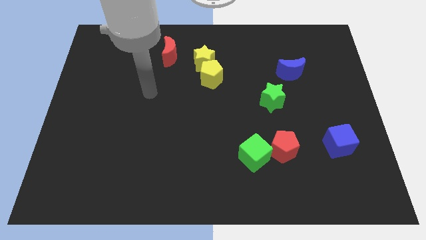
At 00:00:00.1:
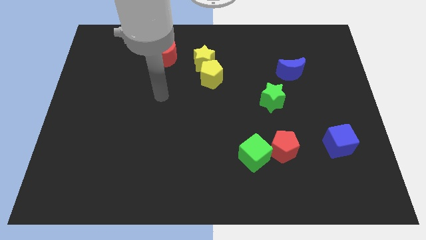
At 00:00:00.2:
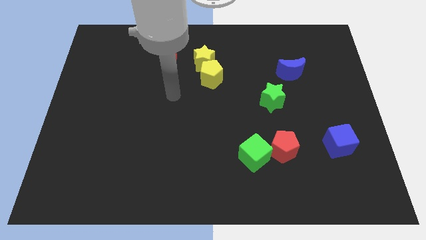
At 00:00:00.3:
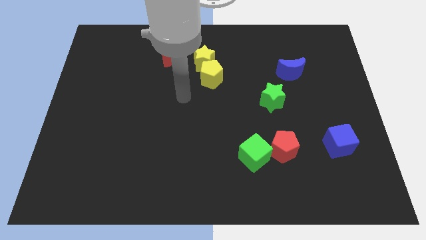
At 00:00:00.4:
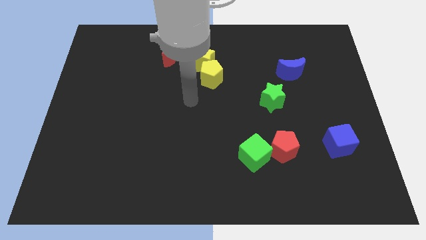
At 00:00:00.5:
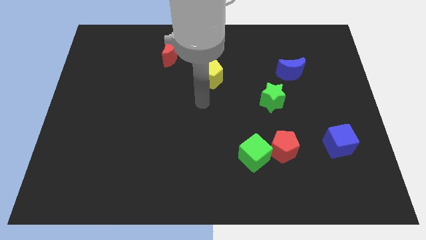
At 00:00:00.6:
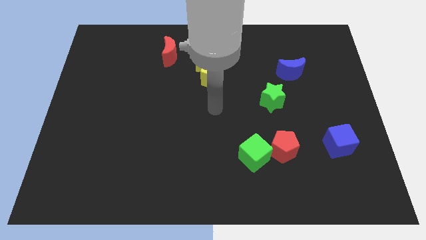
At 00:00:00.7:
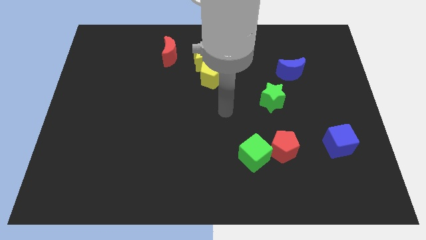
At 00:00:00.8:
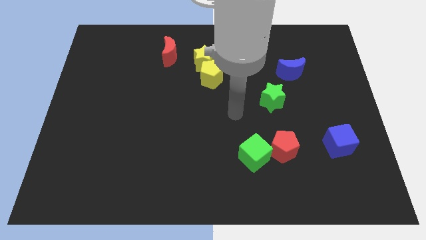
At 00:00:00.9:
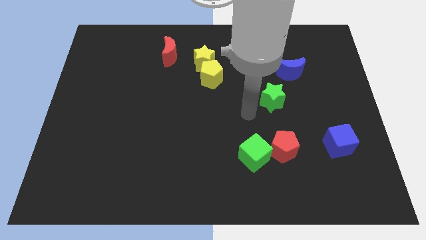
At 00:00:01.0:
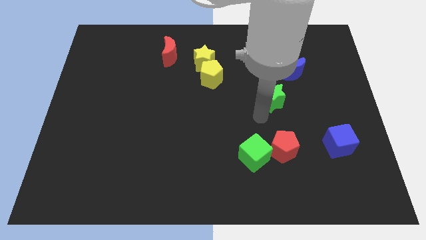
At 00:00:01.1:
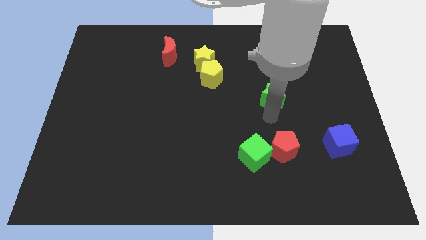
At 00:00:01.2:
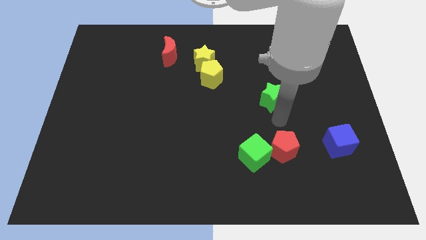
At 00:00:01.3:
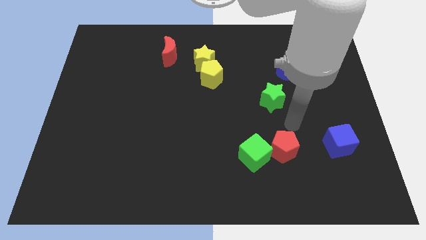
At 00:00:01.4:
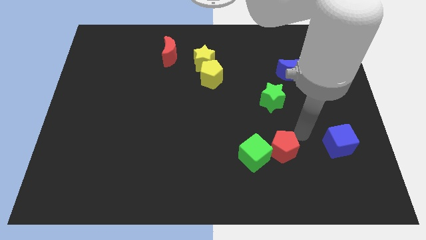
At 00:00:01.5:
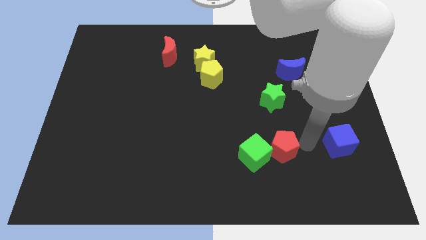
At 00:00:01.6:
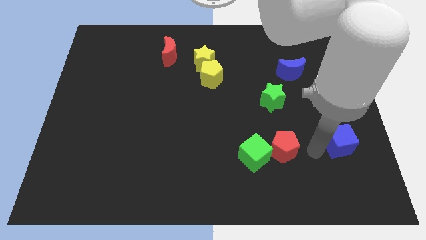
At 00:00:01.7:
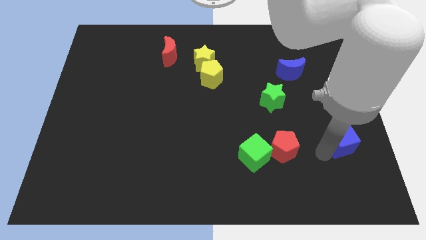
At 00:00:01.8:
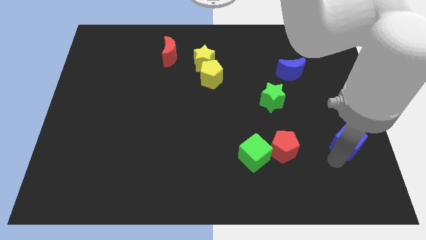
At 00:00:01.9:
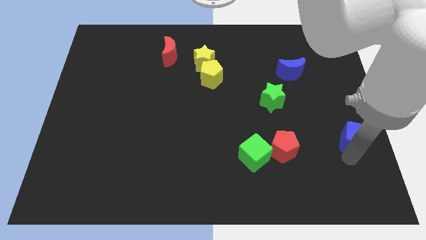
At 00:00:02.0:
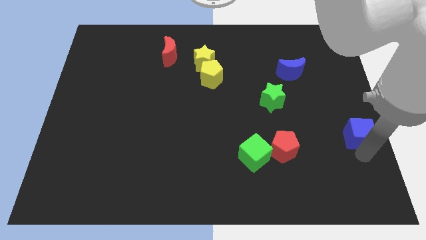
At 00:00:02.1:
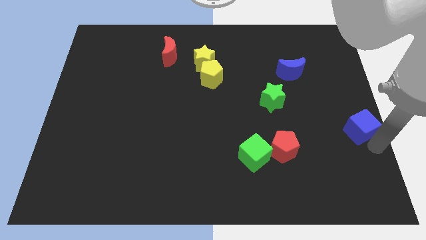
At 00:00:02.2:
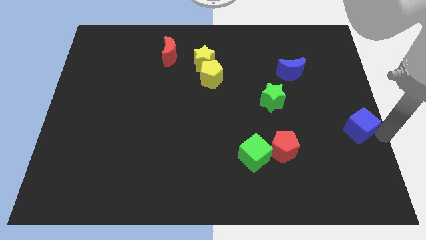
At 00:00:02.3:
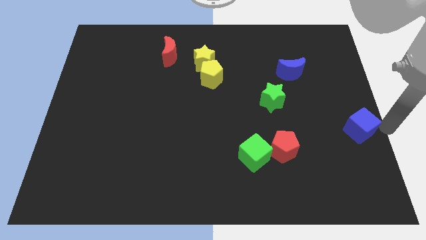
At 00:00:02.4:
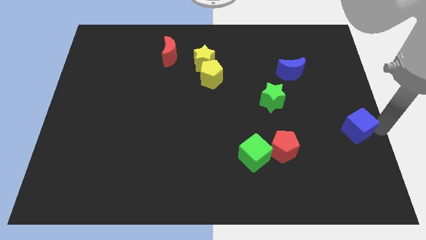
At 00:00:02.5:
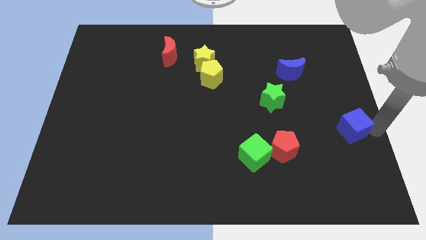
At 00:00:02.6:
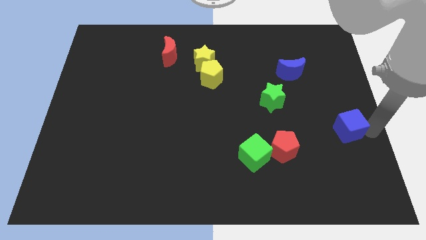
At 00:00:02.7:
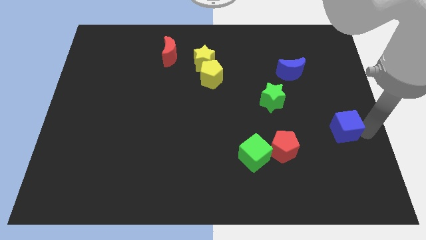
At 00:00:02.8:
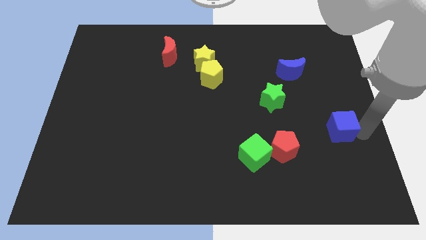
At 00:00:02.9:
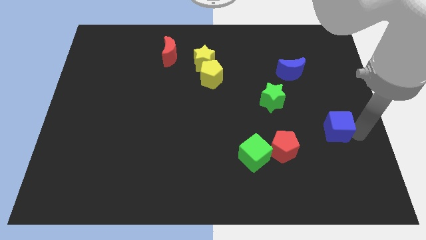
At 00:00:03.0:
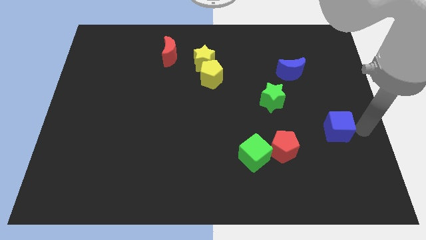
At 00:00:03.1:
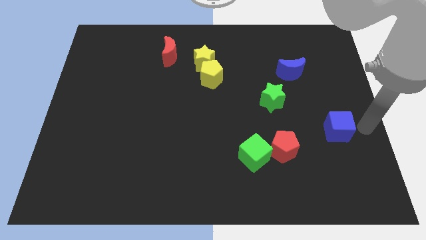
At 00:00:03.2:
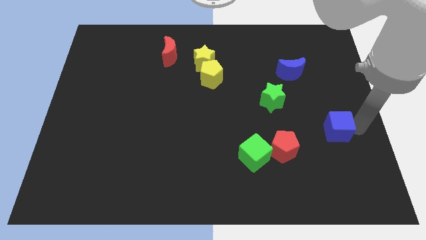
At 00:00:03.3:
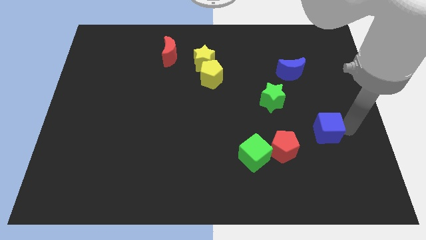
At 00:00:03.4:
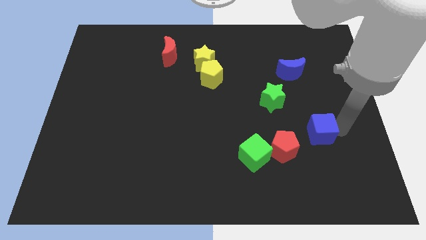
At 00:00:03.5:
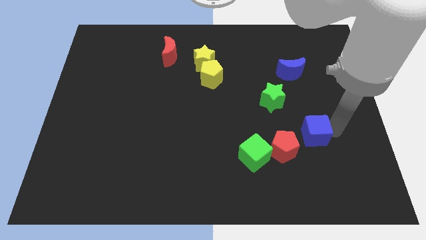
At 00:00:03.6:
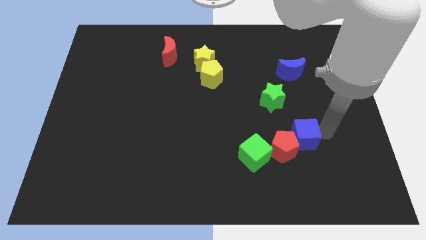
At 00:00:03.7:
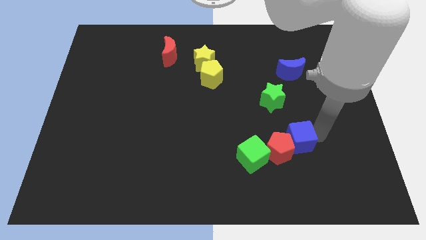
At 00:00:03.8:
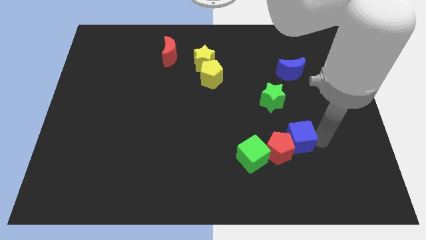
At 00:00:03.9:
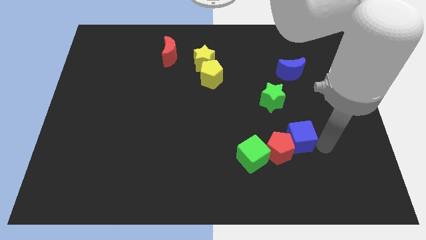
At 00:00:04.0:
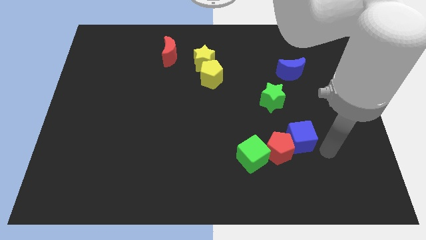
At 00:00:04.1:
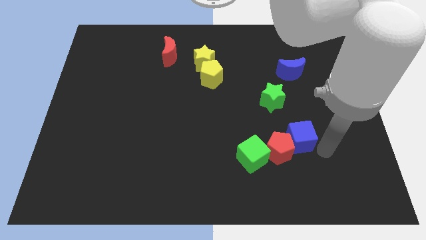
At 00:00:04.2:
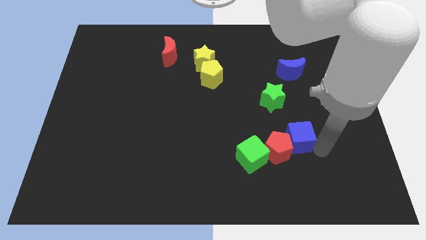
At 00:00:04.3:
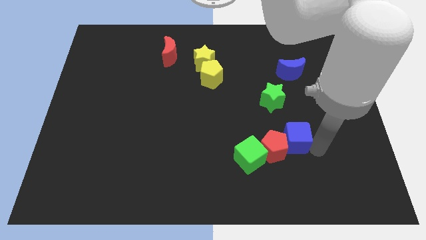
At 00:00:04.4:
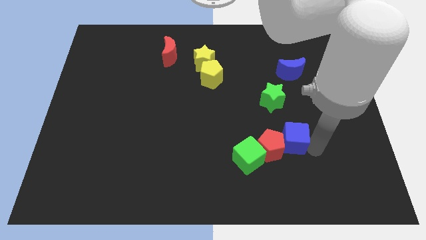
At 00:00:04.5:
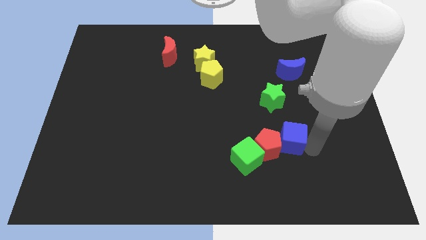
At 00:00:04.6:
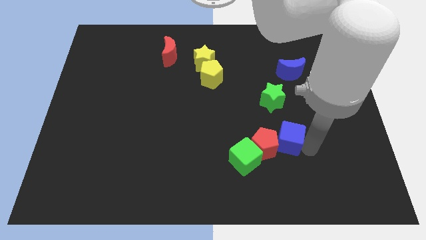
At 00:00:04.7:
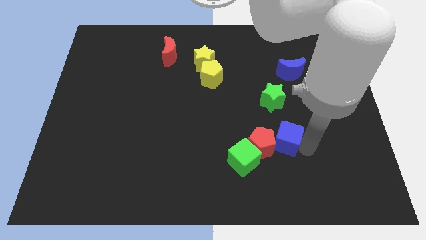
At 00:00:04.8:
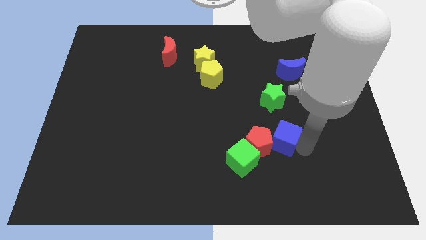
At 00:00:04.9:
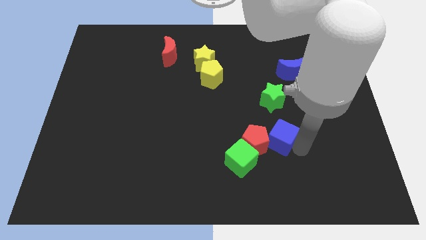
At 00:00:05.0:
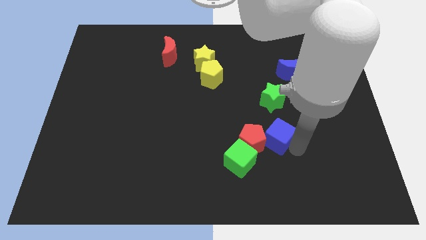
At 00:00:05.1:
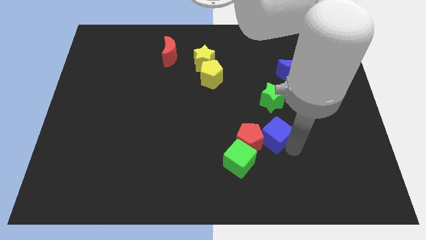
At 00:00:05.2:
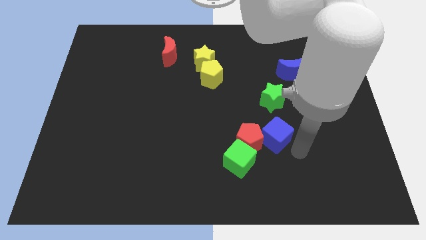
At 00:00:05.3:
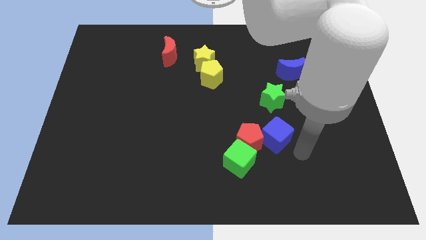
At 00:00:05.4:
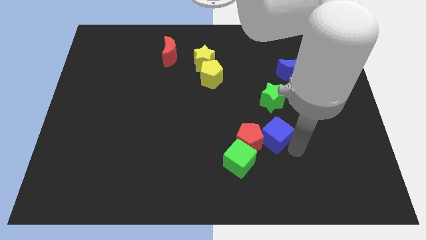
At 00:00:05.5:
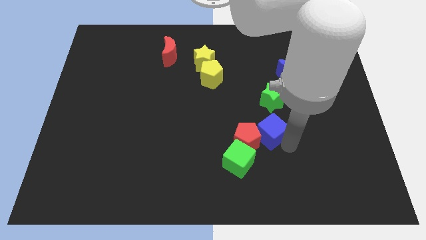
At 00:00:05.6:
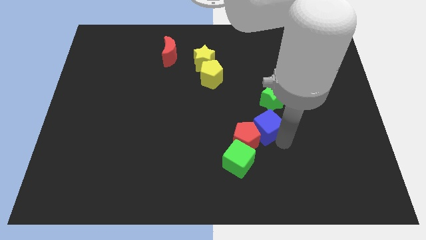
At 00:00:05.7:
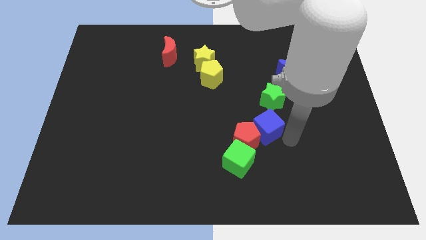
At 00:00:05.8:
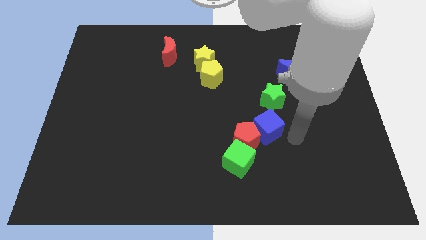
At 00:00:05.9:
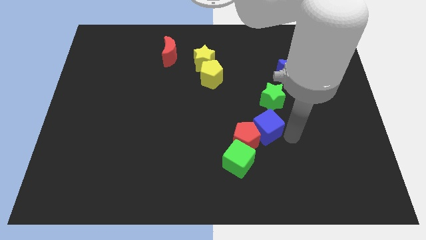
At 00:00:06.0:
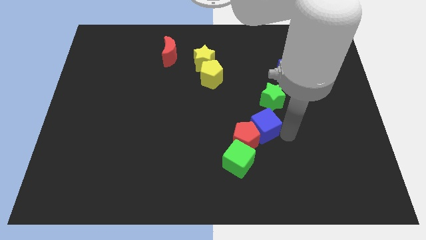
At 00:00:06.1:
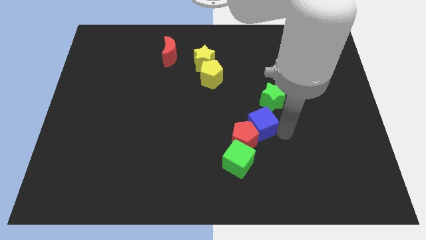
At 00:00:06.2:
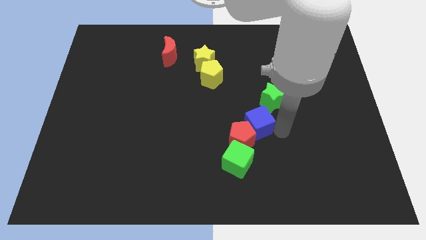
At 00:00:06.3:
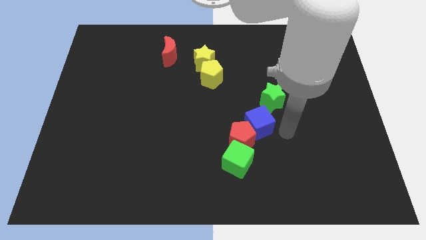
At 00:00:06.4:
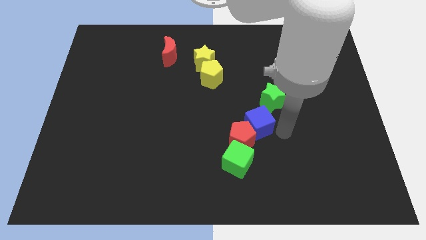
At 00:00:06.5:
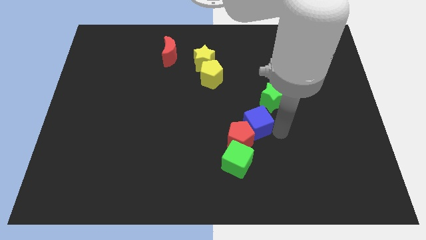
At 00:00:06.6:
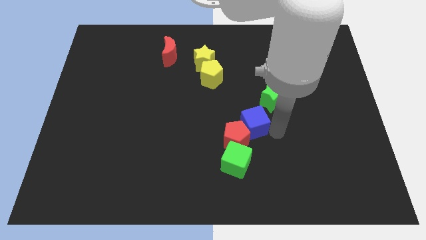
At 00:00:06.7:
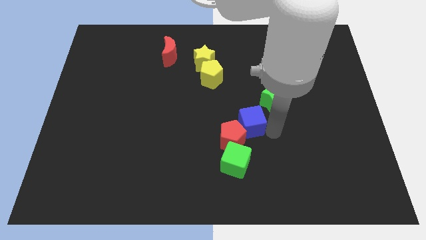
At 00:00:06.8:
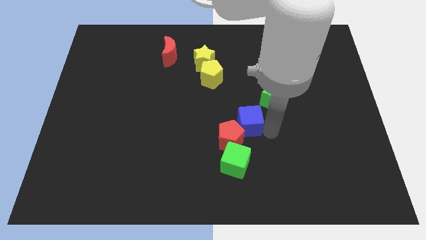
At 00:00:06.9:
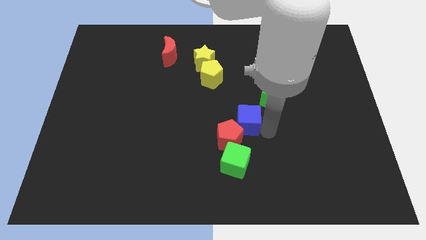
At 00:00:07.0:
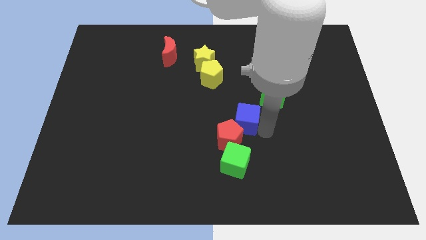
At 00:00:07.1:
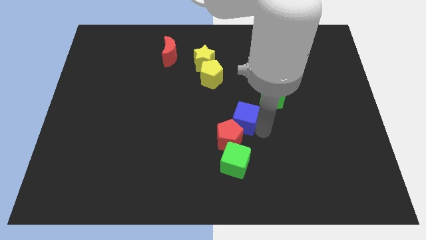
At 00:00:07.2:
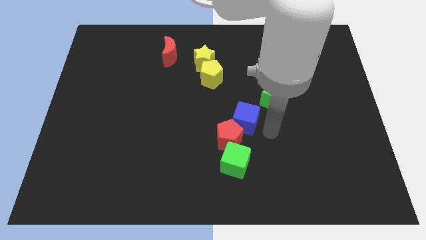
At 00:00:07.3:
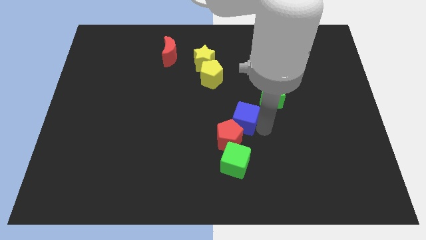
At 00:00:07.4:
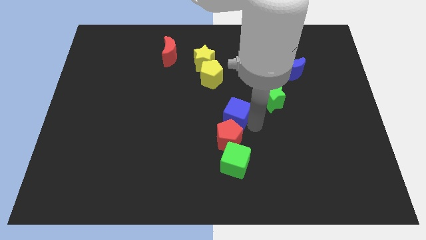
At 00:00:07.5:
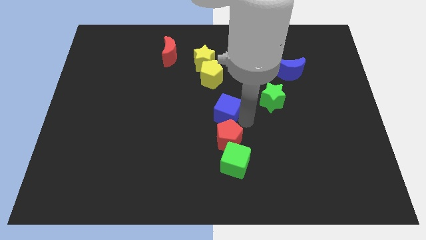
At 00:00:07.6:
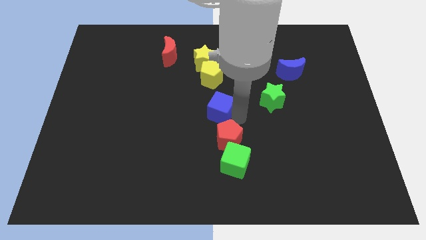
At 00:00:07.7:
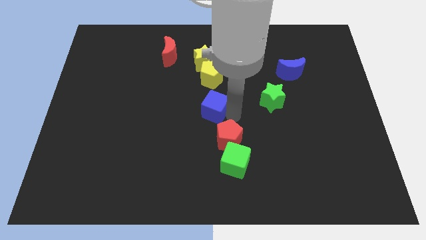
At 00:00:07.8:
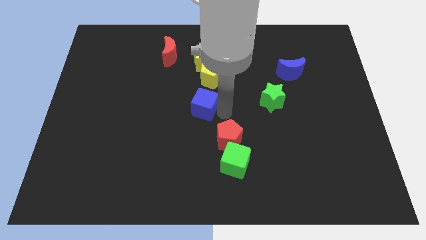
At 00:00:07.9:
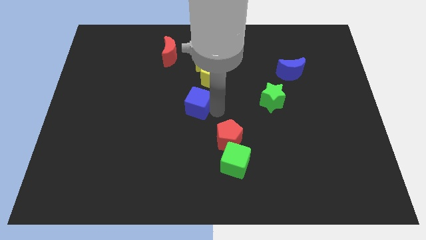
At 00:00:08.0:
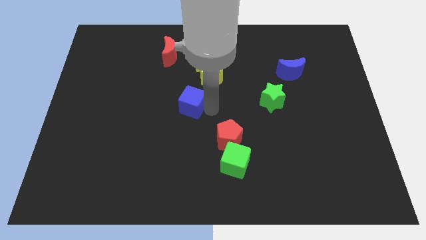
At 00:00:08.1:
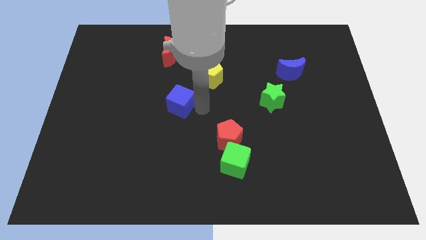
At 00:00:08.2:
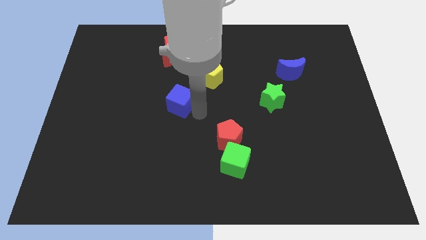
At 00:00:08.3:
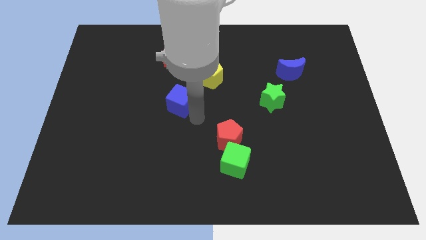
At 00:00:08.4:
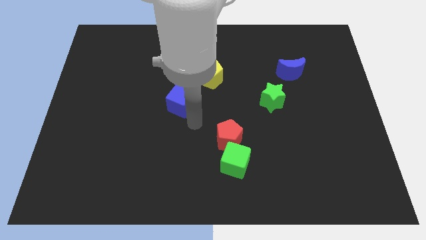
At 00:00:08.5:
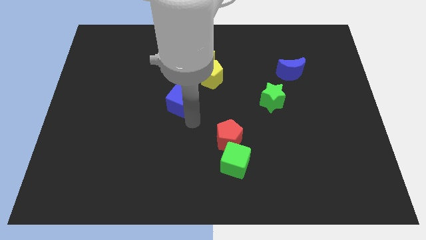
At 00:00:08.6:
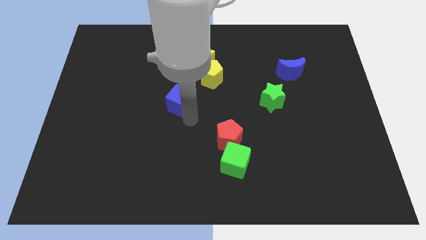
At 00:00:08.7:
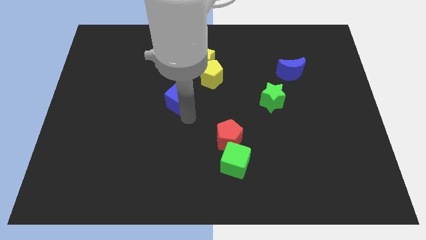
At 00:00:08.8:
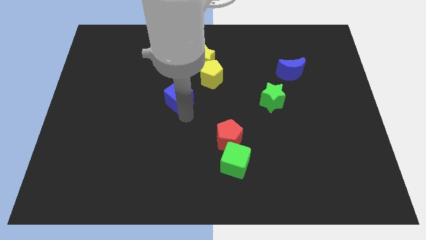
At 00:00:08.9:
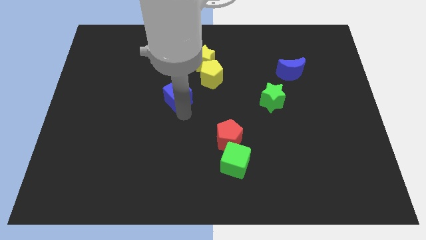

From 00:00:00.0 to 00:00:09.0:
slide the blue cube to the bottom of the red moon
